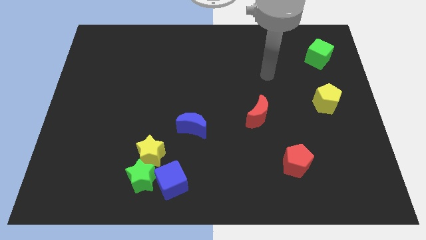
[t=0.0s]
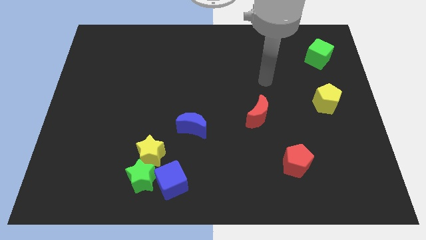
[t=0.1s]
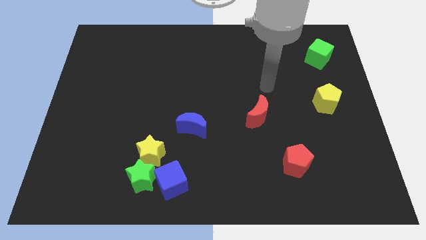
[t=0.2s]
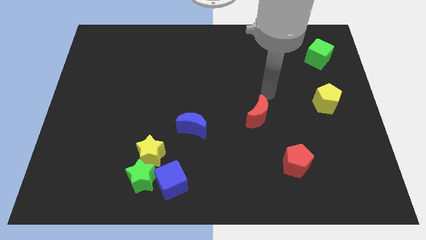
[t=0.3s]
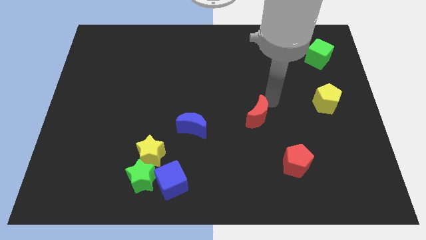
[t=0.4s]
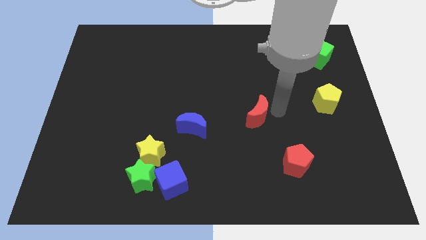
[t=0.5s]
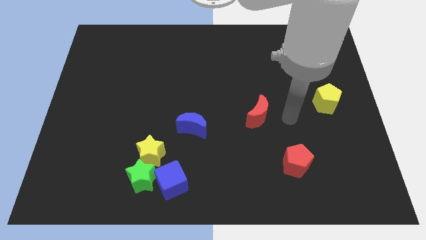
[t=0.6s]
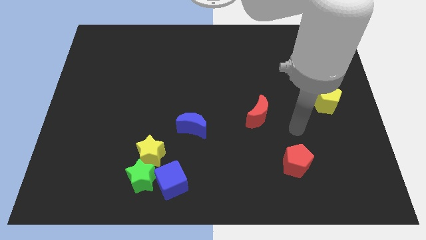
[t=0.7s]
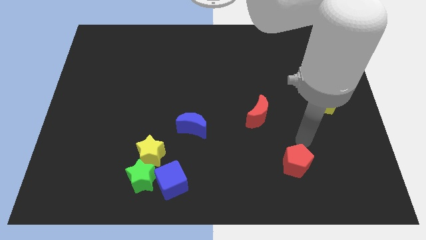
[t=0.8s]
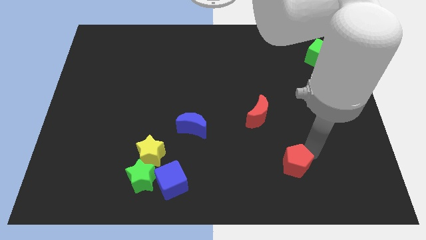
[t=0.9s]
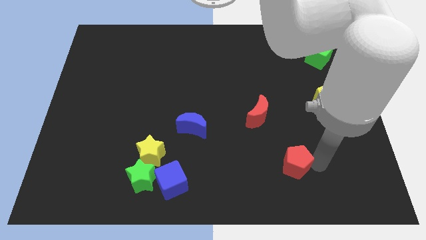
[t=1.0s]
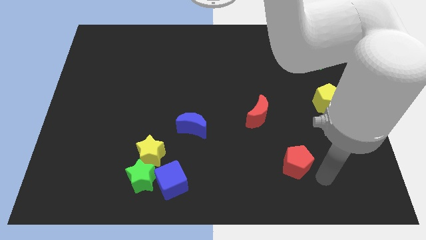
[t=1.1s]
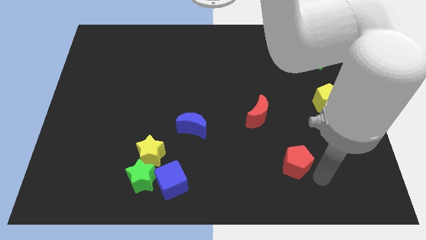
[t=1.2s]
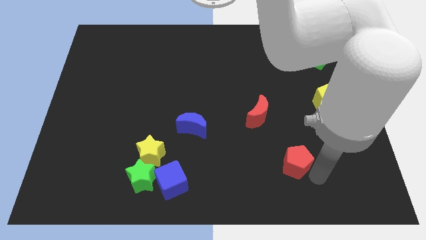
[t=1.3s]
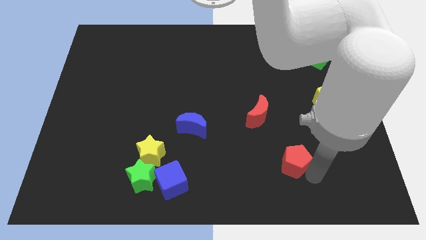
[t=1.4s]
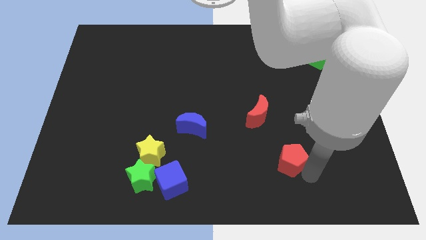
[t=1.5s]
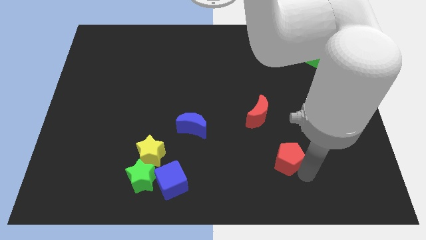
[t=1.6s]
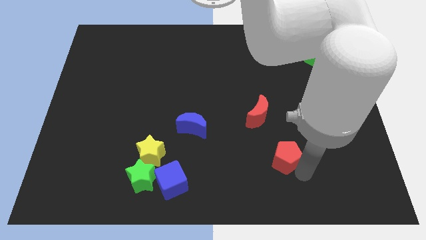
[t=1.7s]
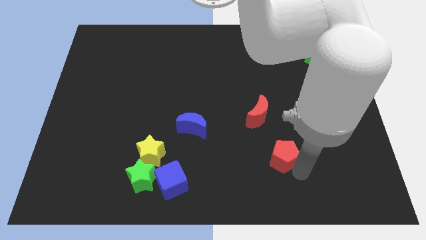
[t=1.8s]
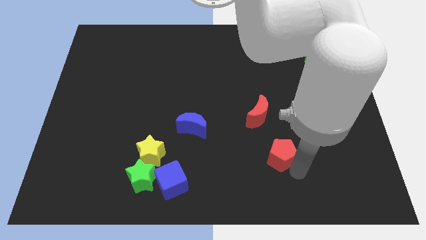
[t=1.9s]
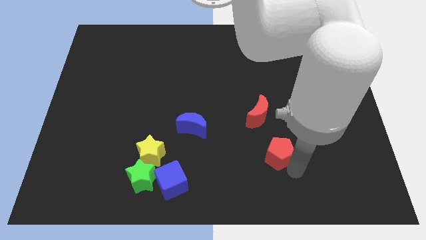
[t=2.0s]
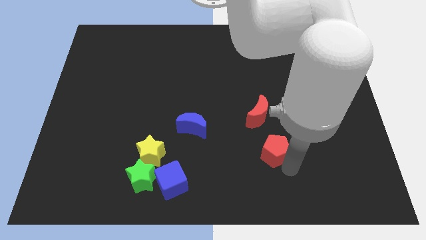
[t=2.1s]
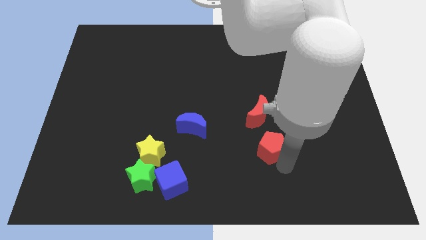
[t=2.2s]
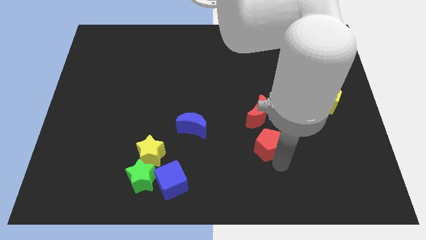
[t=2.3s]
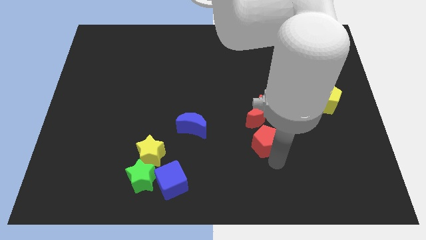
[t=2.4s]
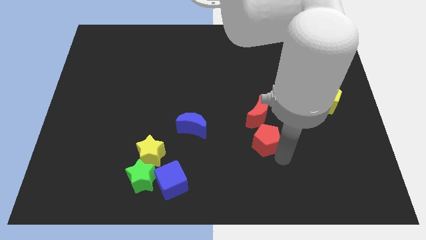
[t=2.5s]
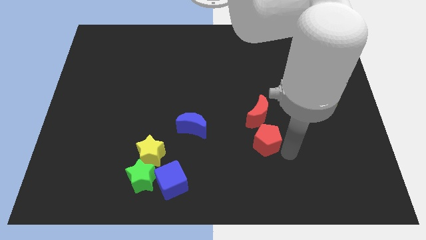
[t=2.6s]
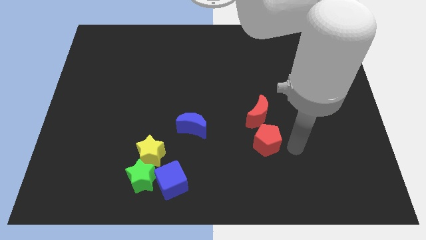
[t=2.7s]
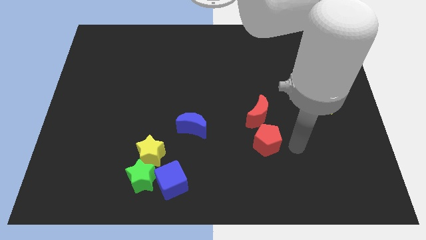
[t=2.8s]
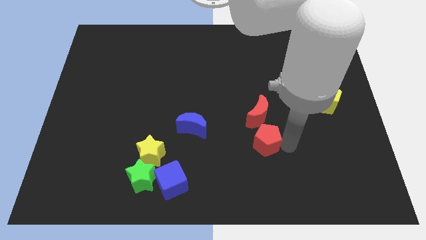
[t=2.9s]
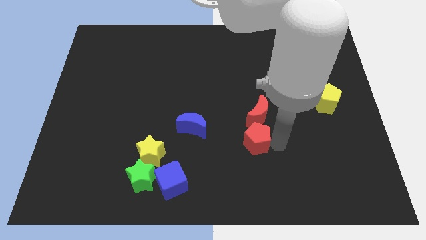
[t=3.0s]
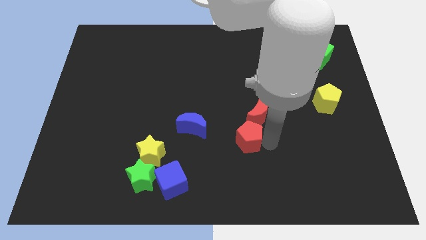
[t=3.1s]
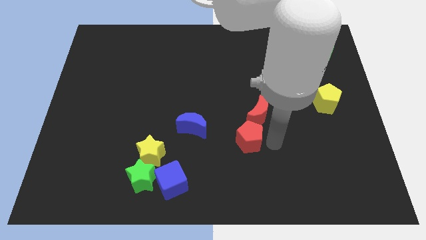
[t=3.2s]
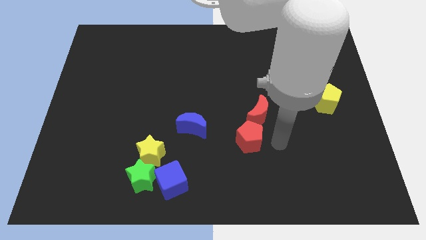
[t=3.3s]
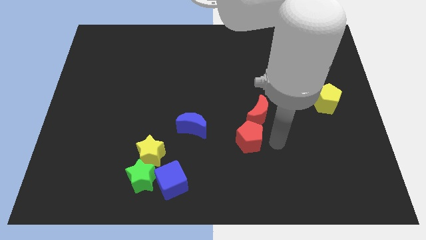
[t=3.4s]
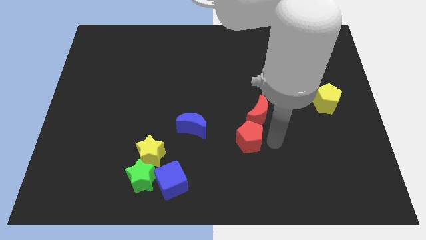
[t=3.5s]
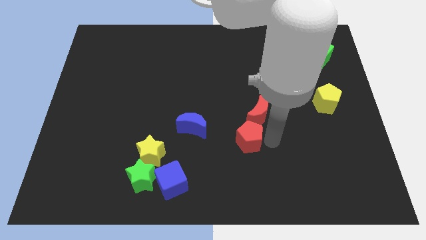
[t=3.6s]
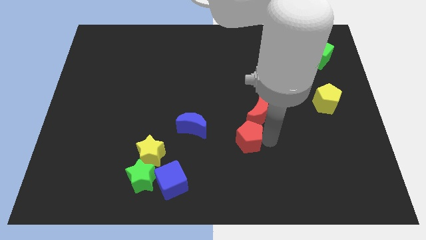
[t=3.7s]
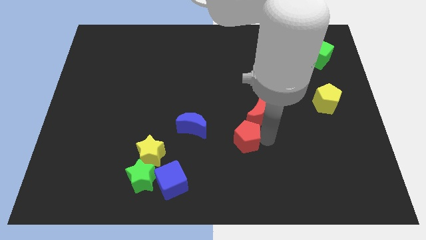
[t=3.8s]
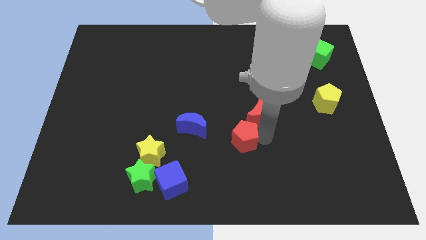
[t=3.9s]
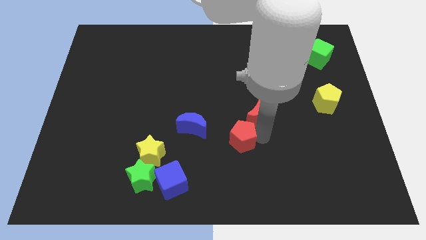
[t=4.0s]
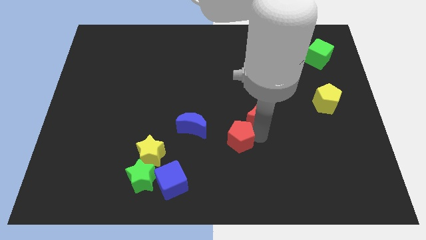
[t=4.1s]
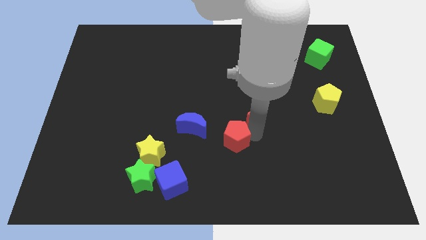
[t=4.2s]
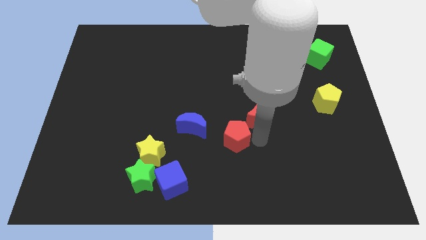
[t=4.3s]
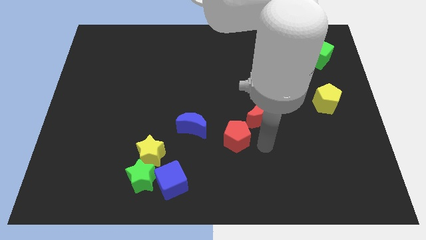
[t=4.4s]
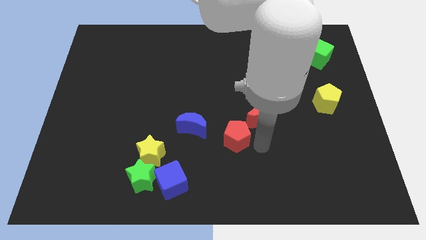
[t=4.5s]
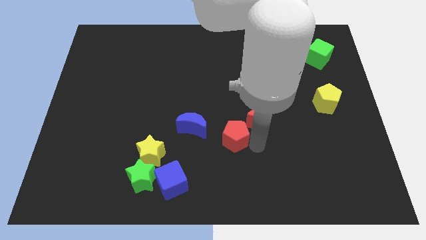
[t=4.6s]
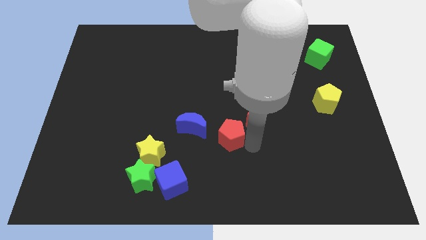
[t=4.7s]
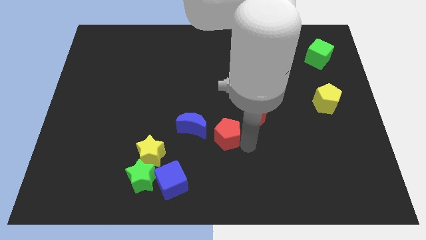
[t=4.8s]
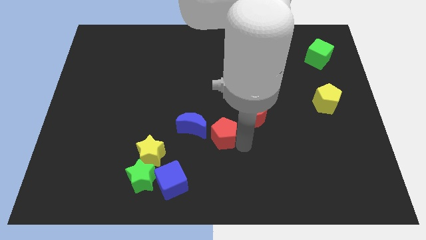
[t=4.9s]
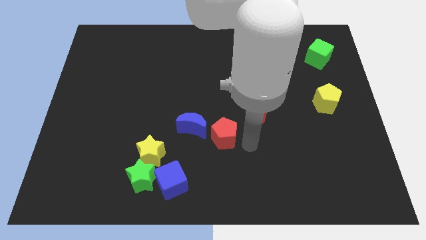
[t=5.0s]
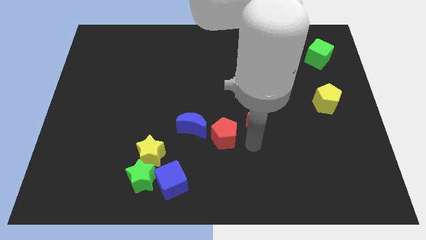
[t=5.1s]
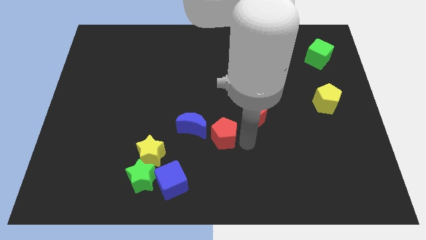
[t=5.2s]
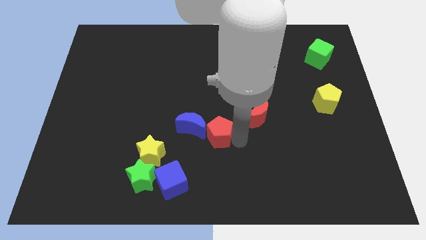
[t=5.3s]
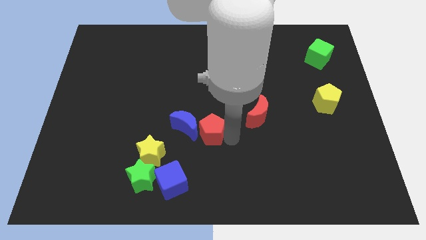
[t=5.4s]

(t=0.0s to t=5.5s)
move the red pentagon next to the blue moon

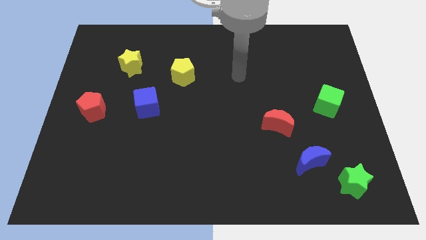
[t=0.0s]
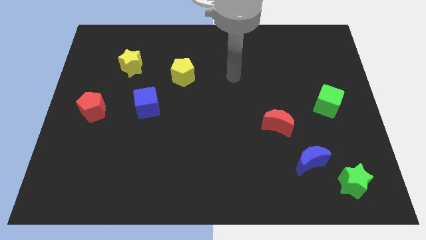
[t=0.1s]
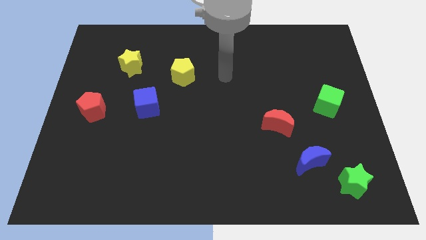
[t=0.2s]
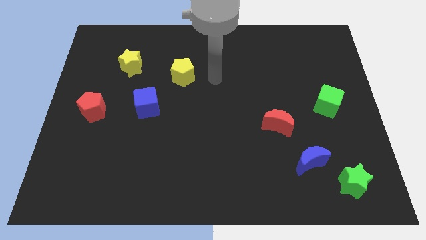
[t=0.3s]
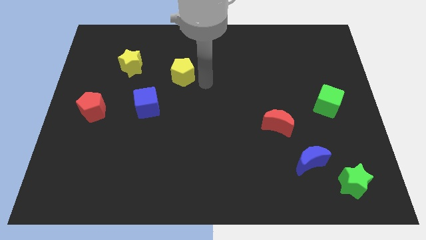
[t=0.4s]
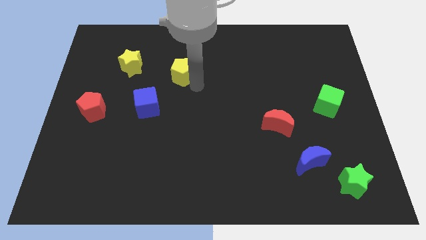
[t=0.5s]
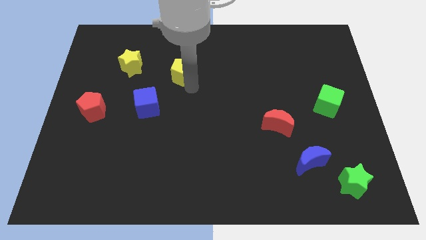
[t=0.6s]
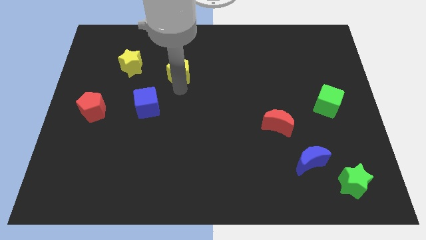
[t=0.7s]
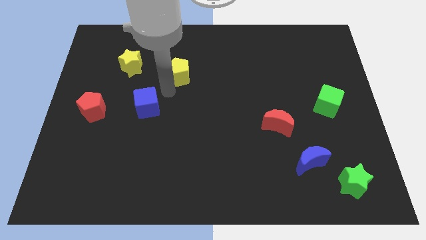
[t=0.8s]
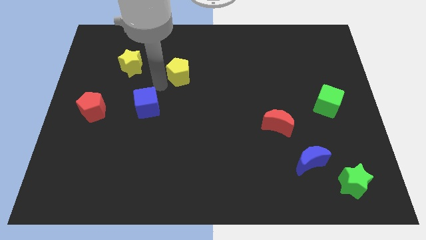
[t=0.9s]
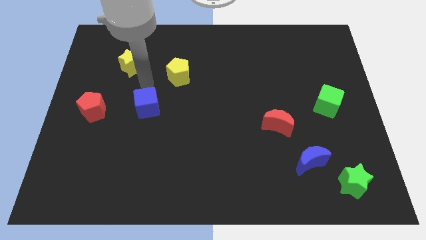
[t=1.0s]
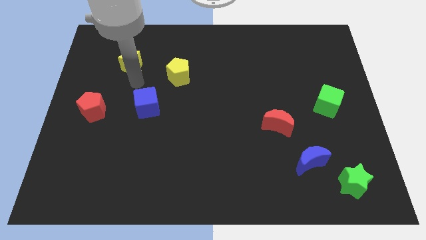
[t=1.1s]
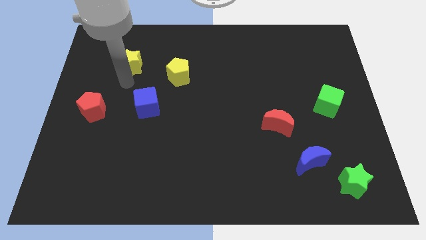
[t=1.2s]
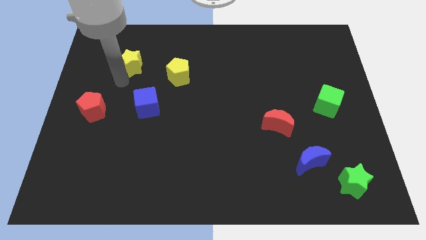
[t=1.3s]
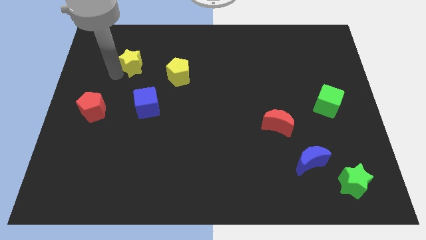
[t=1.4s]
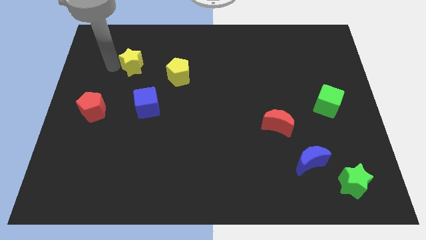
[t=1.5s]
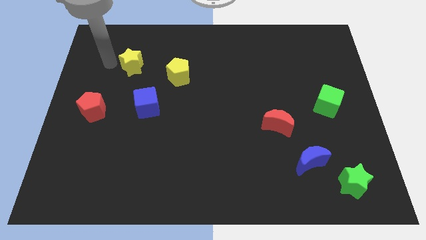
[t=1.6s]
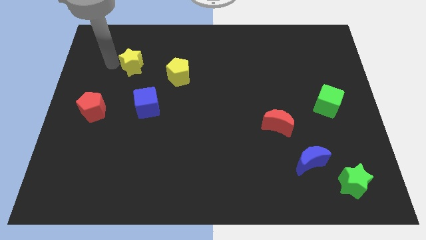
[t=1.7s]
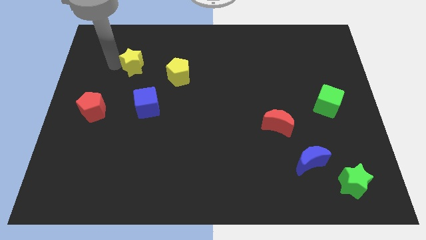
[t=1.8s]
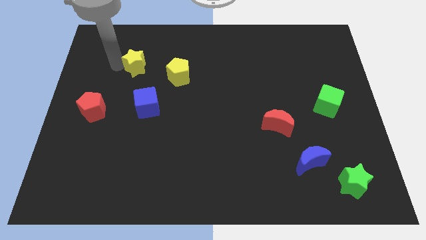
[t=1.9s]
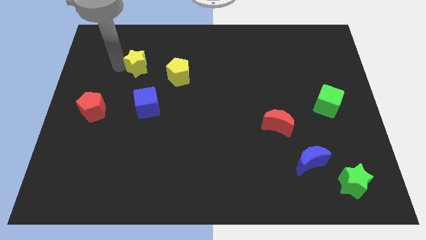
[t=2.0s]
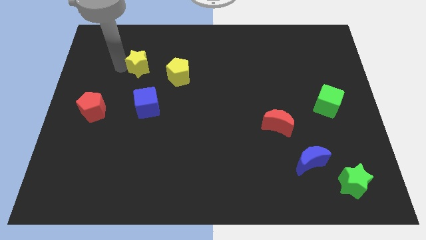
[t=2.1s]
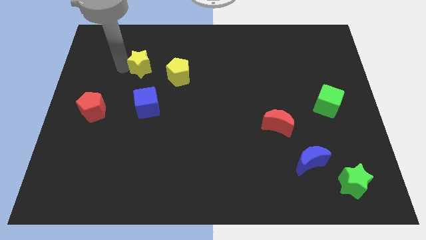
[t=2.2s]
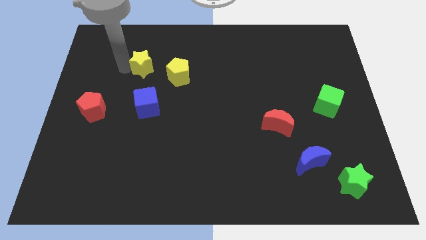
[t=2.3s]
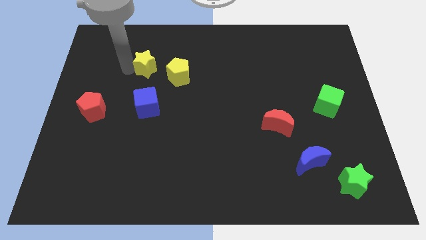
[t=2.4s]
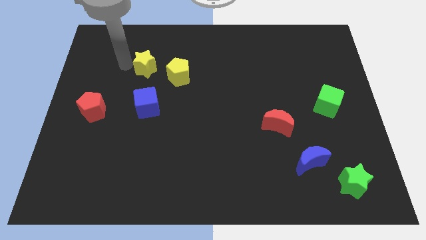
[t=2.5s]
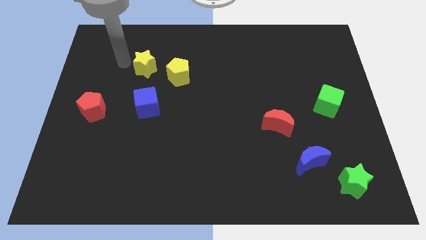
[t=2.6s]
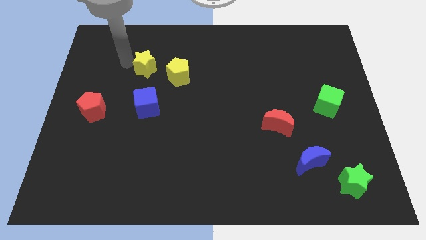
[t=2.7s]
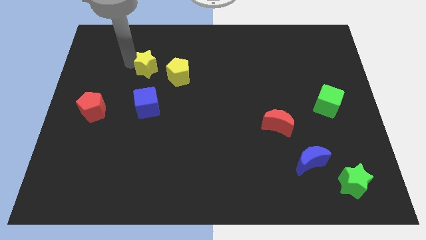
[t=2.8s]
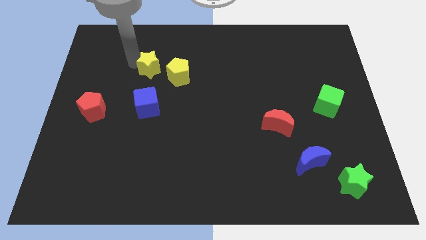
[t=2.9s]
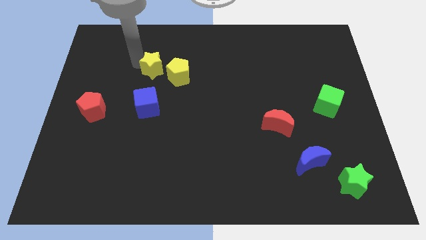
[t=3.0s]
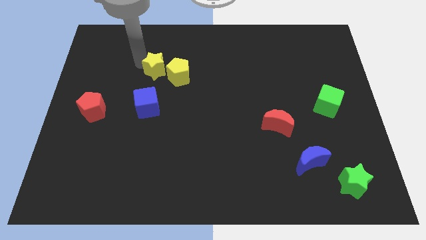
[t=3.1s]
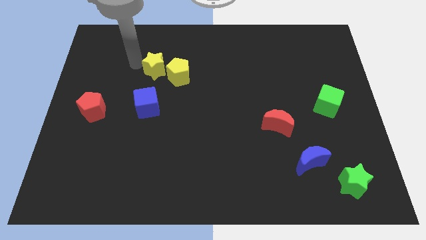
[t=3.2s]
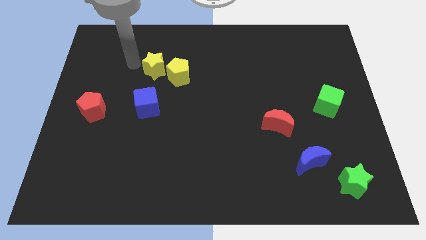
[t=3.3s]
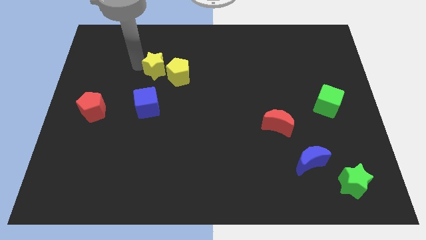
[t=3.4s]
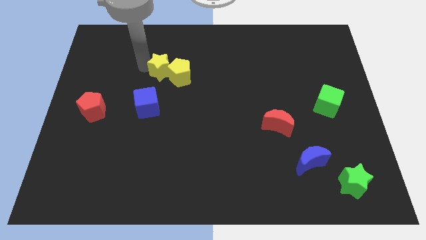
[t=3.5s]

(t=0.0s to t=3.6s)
slide the yellow star towards the yellow pentagon
